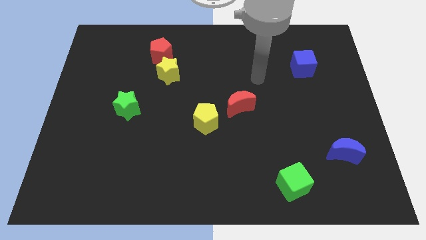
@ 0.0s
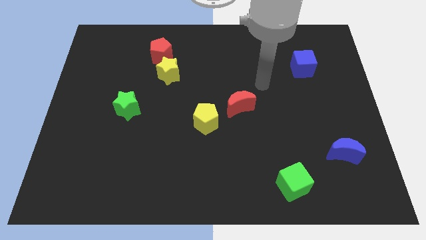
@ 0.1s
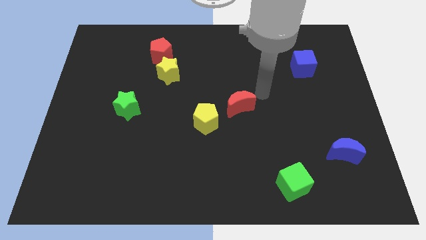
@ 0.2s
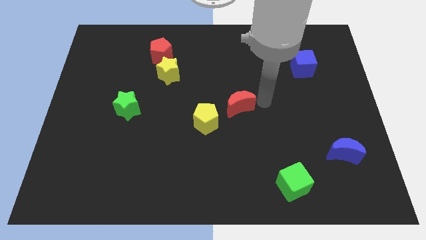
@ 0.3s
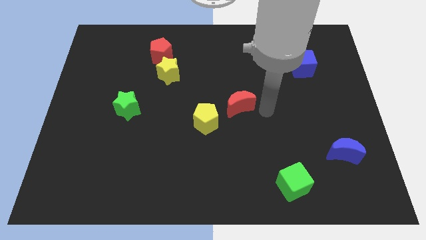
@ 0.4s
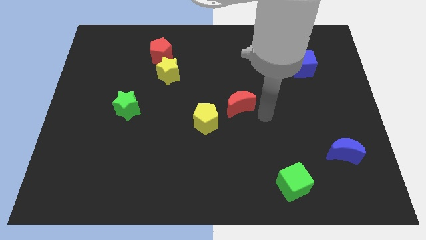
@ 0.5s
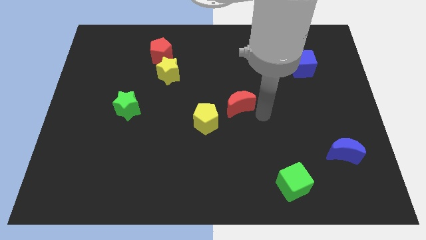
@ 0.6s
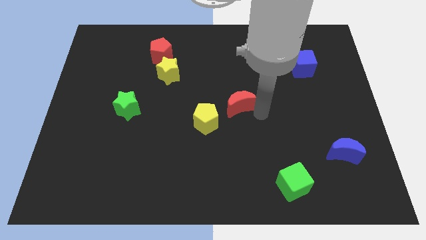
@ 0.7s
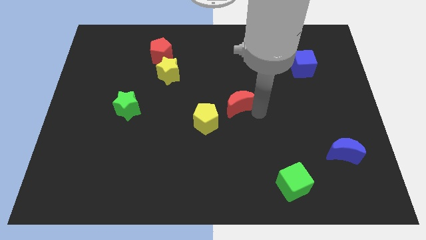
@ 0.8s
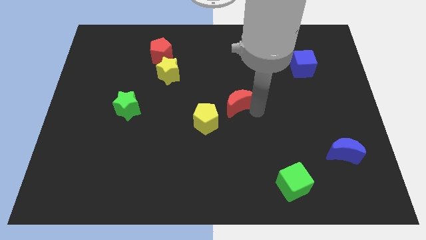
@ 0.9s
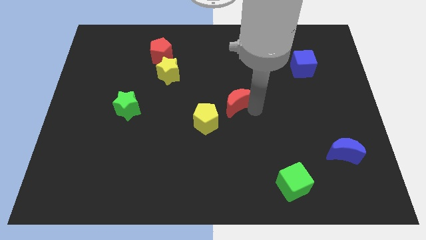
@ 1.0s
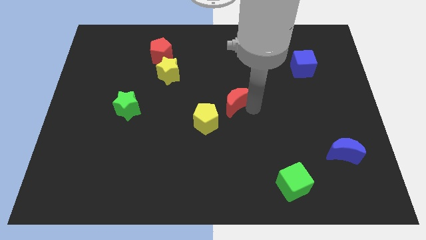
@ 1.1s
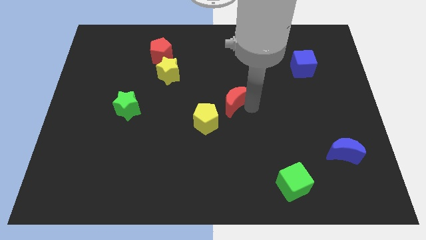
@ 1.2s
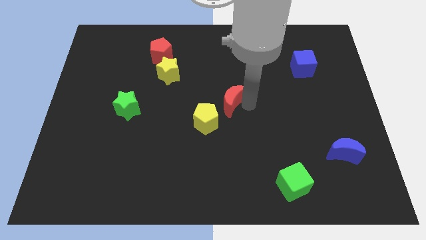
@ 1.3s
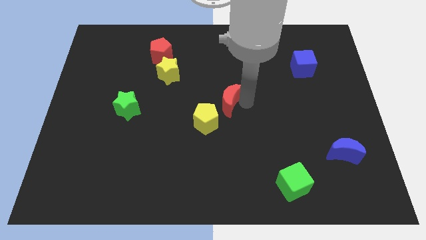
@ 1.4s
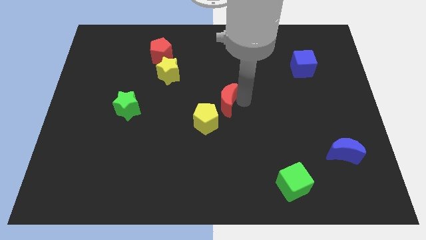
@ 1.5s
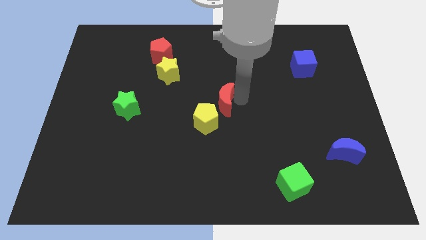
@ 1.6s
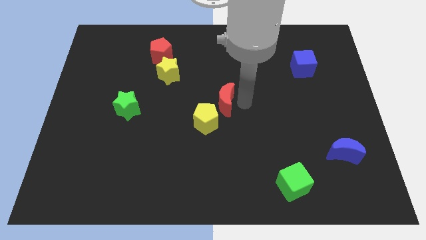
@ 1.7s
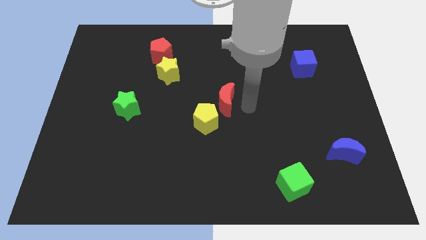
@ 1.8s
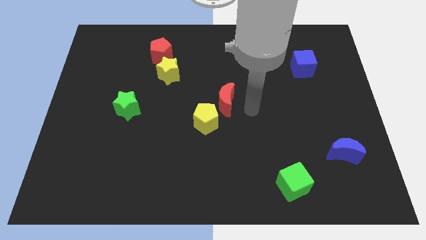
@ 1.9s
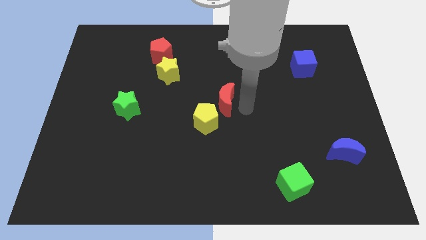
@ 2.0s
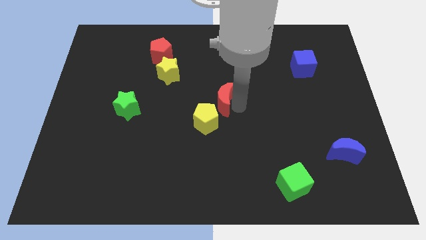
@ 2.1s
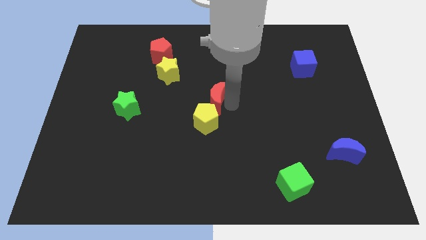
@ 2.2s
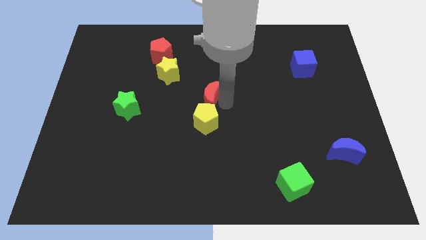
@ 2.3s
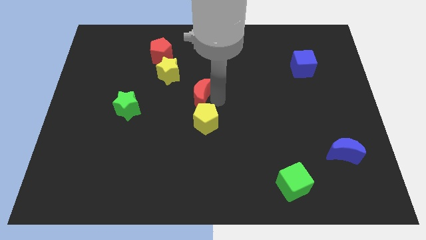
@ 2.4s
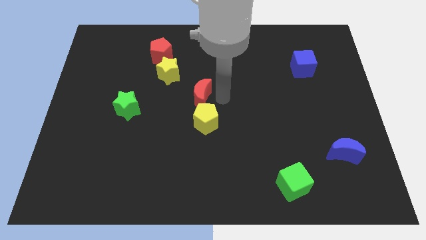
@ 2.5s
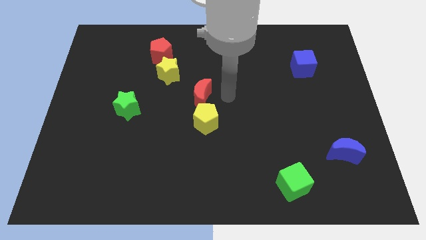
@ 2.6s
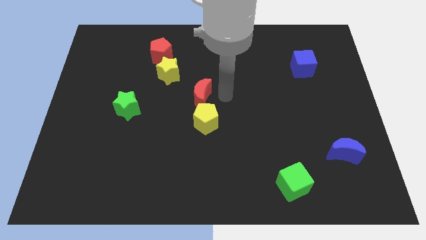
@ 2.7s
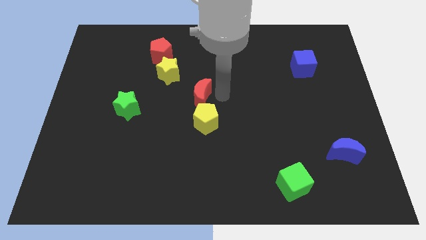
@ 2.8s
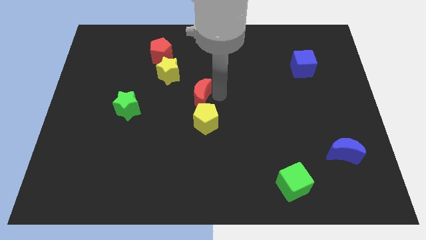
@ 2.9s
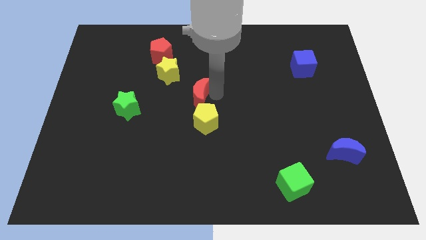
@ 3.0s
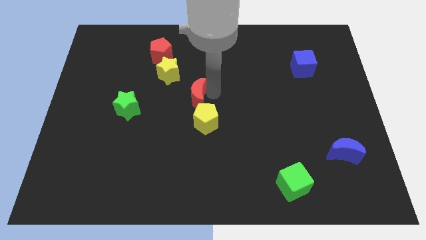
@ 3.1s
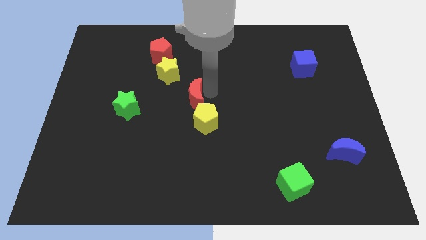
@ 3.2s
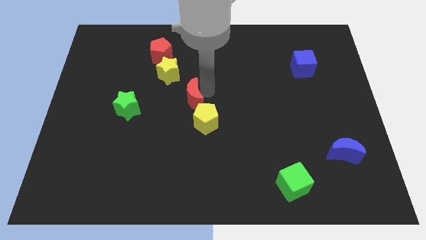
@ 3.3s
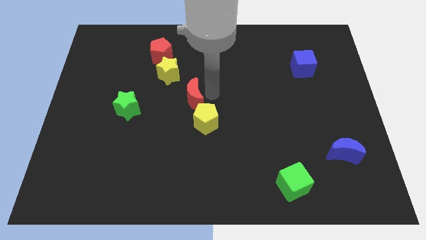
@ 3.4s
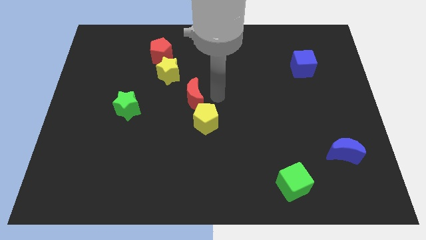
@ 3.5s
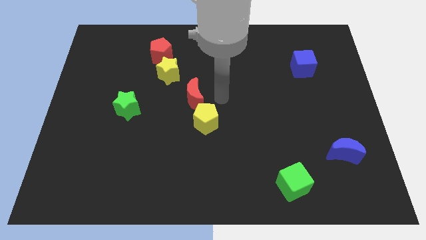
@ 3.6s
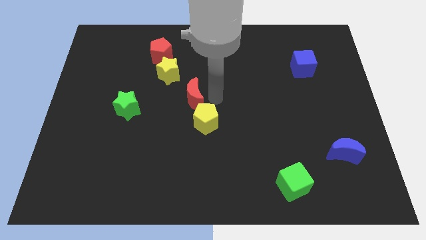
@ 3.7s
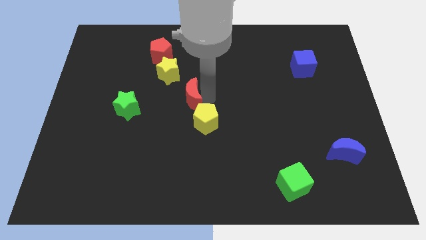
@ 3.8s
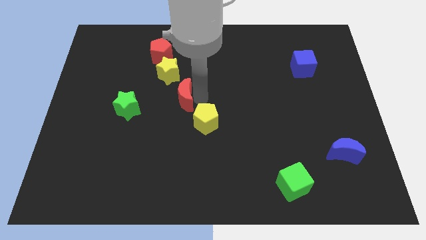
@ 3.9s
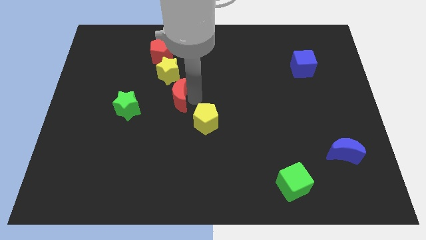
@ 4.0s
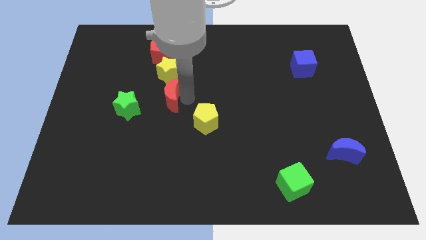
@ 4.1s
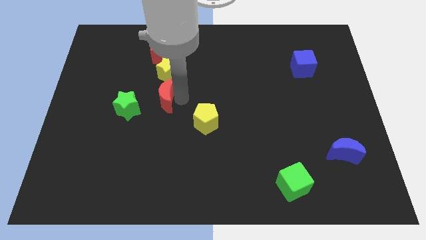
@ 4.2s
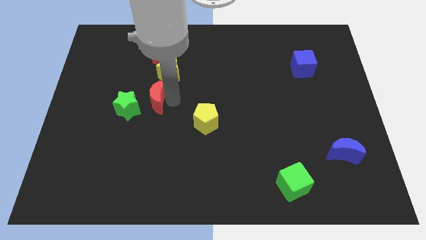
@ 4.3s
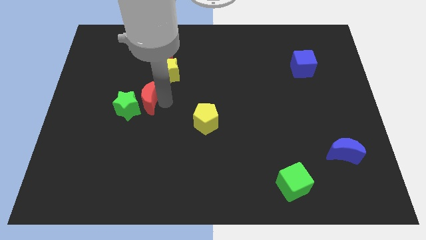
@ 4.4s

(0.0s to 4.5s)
push the red moon to the left

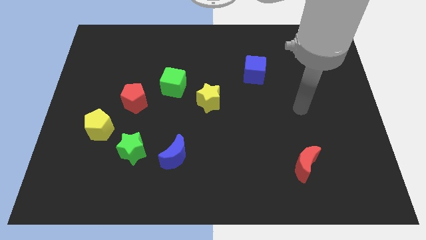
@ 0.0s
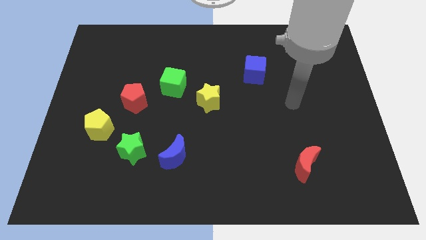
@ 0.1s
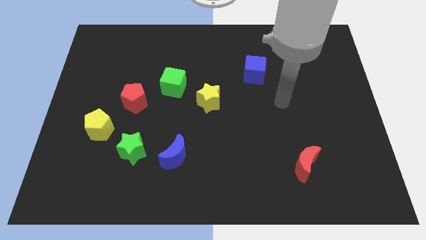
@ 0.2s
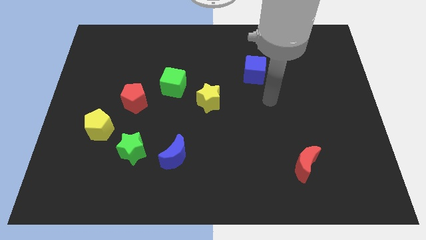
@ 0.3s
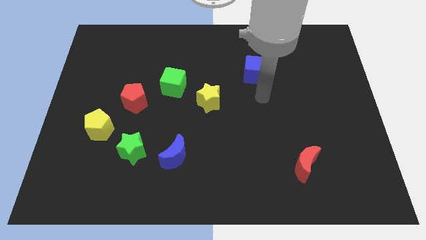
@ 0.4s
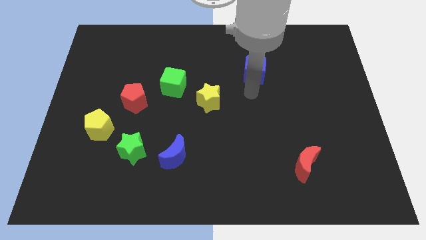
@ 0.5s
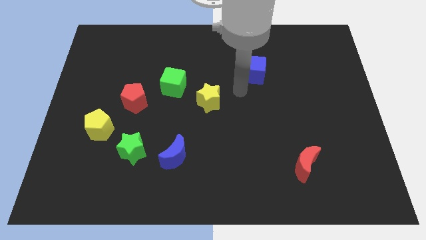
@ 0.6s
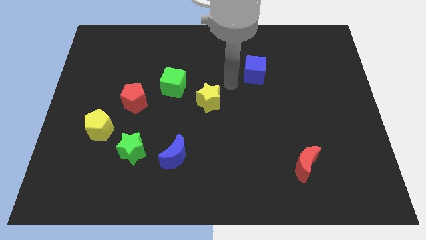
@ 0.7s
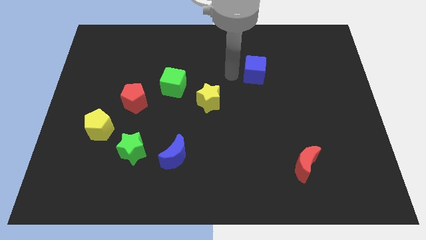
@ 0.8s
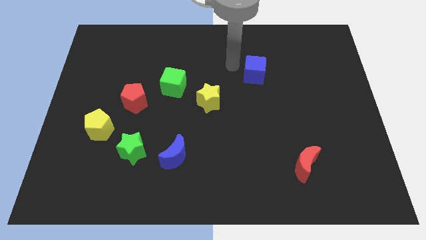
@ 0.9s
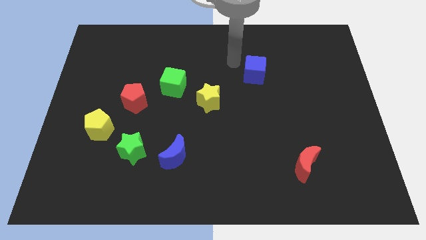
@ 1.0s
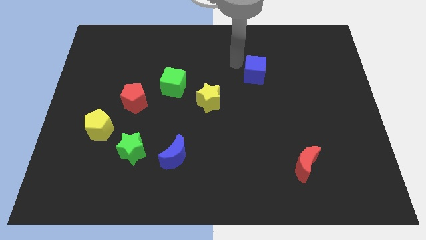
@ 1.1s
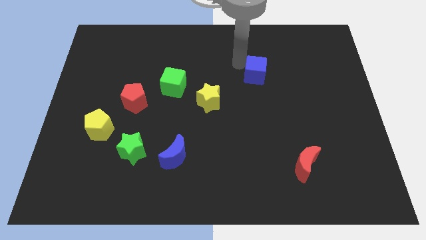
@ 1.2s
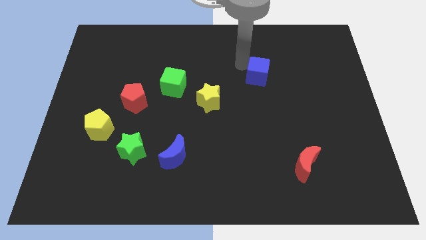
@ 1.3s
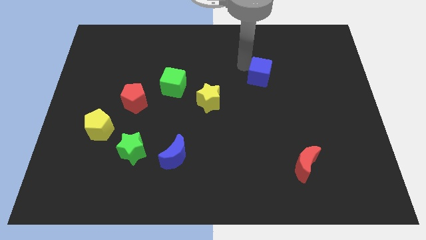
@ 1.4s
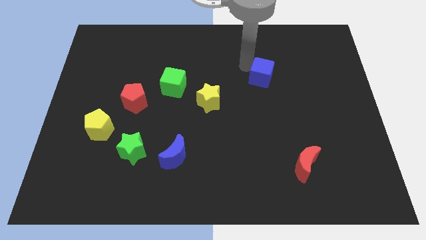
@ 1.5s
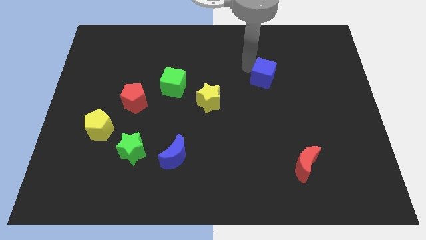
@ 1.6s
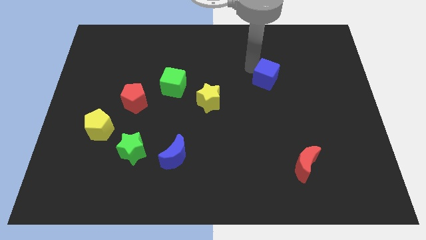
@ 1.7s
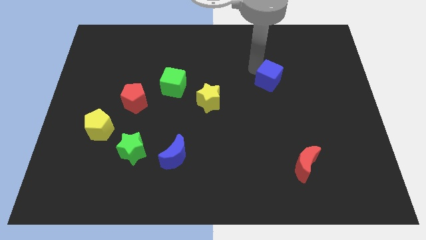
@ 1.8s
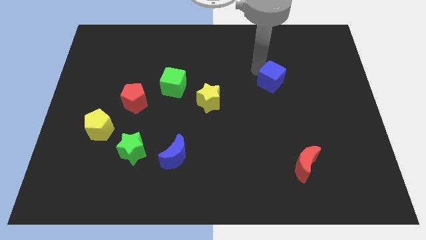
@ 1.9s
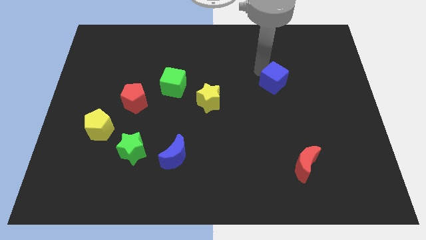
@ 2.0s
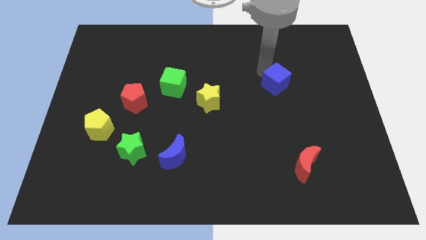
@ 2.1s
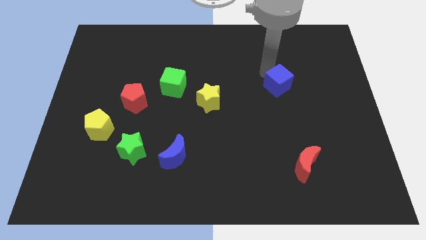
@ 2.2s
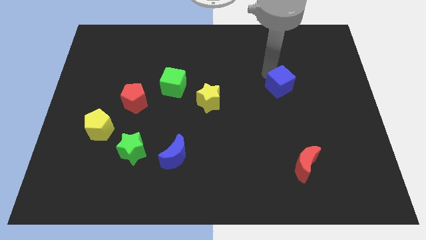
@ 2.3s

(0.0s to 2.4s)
slightly push the blue cube down and then right

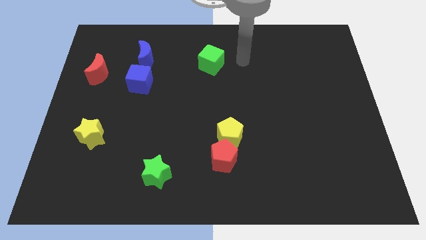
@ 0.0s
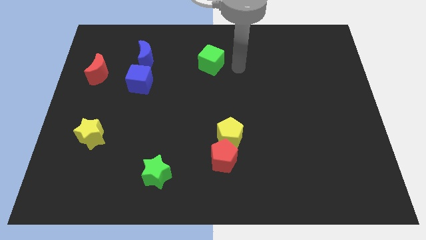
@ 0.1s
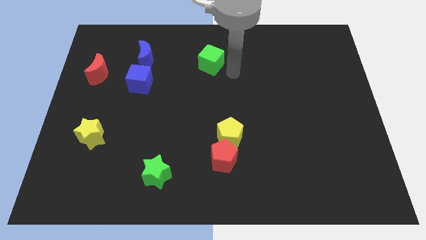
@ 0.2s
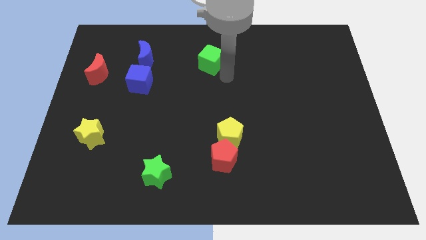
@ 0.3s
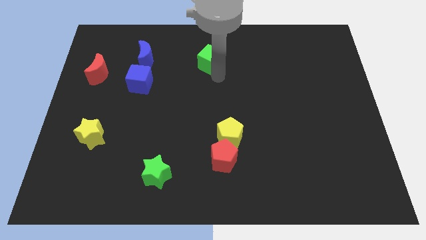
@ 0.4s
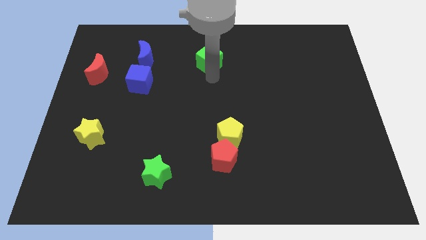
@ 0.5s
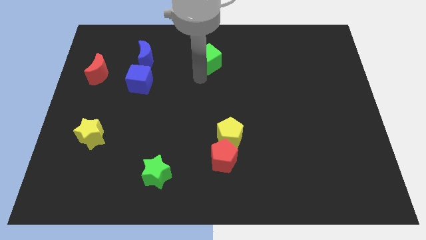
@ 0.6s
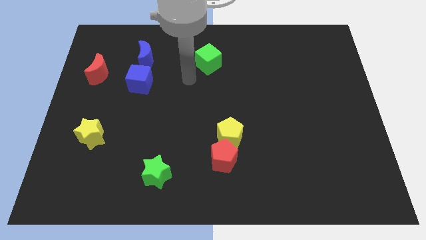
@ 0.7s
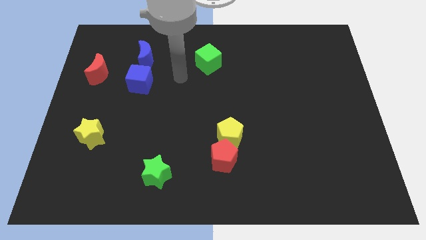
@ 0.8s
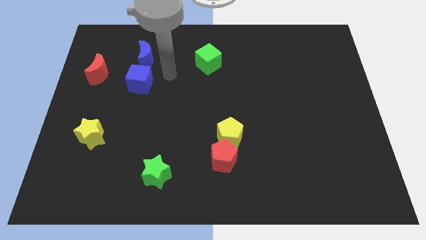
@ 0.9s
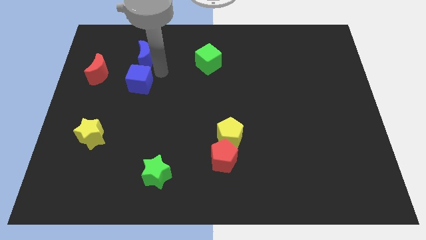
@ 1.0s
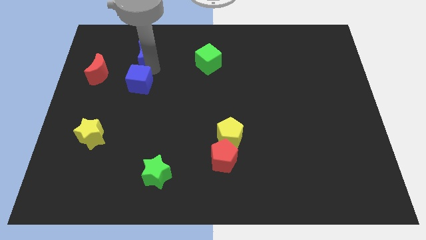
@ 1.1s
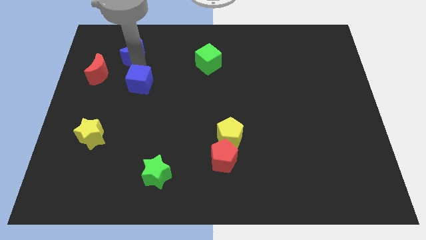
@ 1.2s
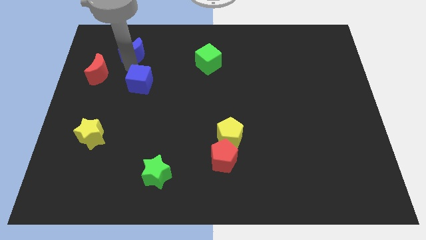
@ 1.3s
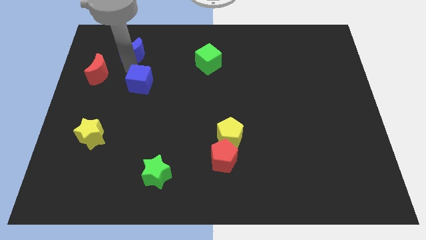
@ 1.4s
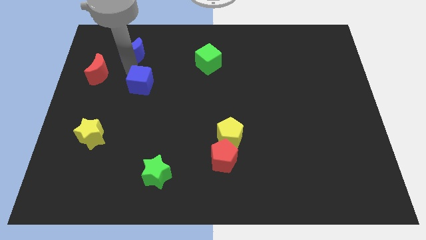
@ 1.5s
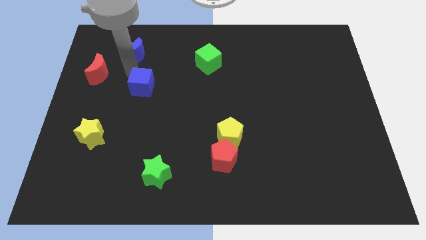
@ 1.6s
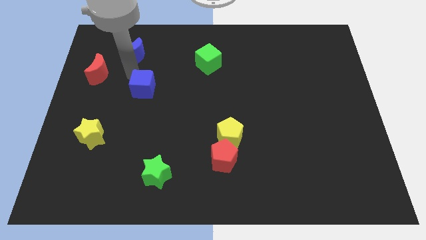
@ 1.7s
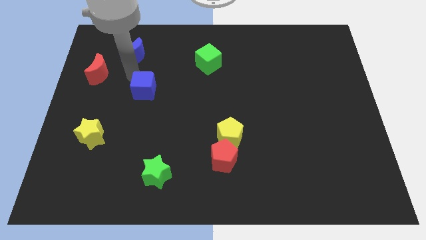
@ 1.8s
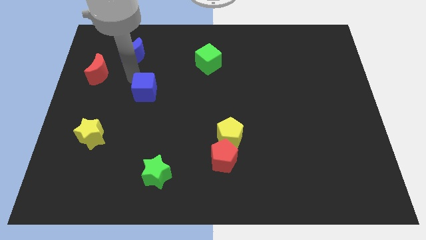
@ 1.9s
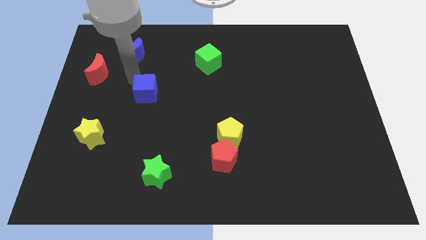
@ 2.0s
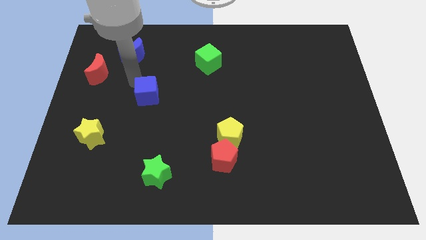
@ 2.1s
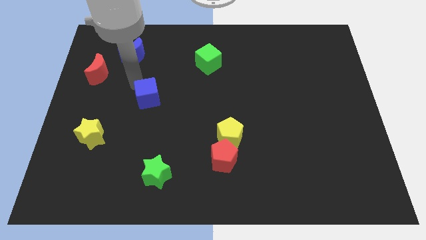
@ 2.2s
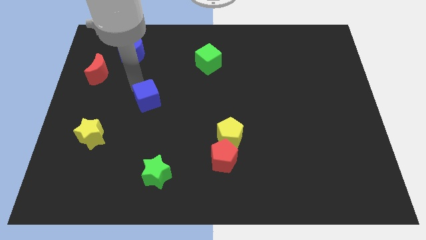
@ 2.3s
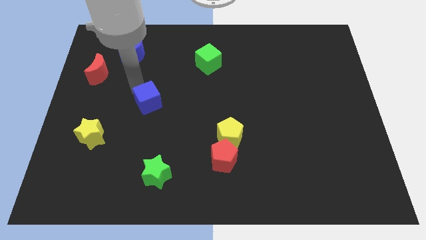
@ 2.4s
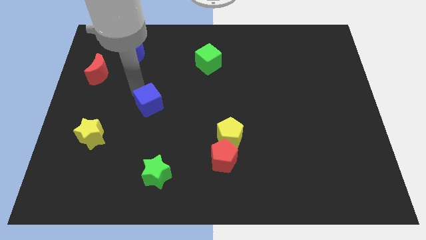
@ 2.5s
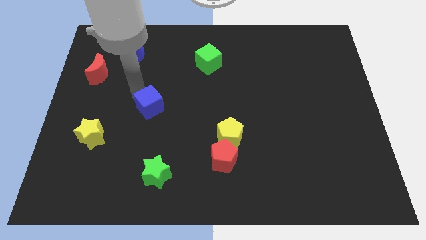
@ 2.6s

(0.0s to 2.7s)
slightly move the blue cube downwards and then to the right
